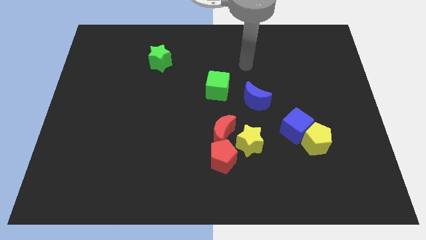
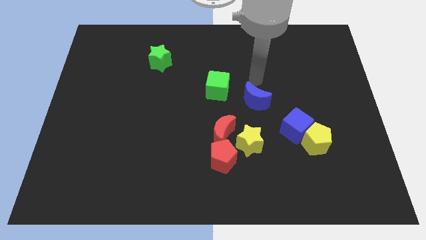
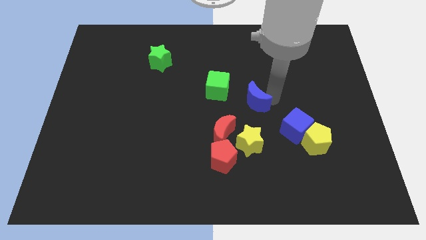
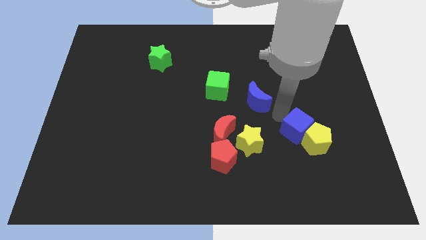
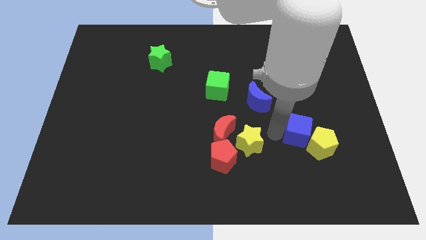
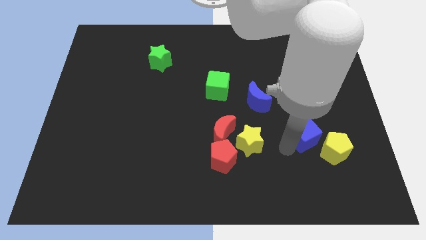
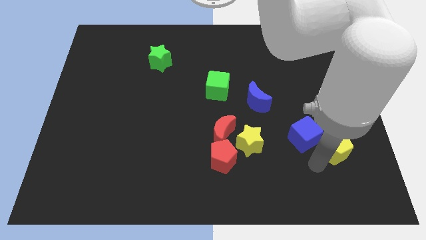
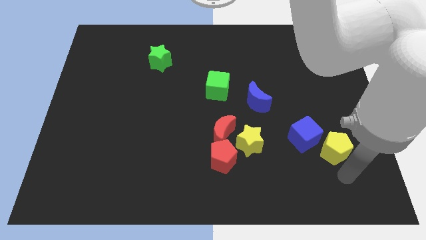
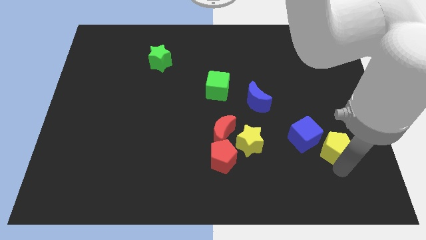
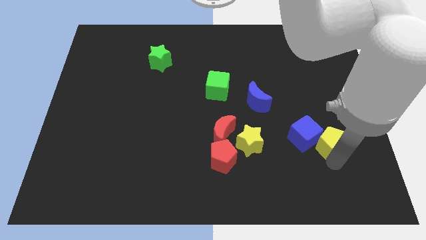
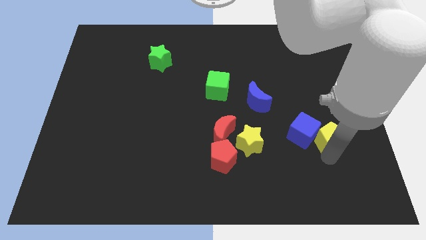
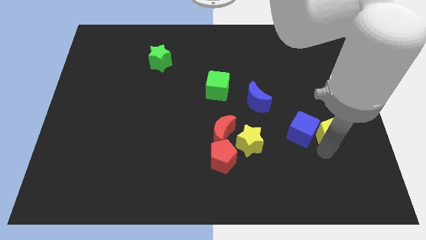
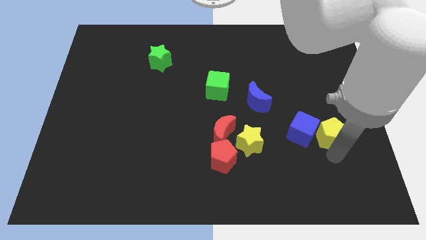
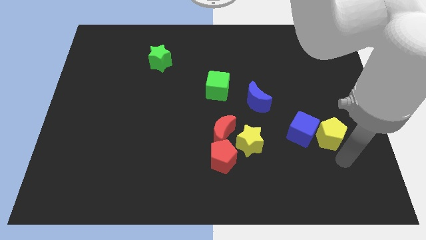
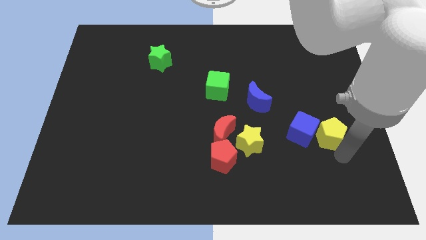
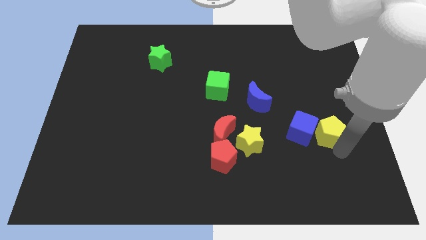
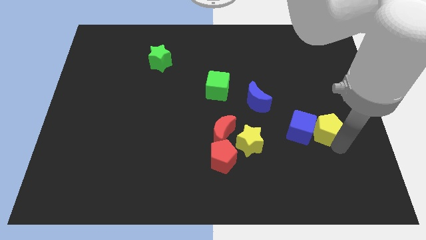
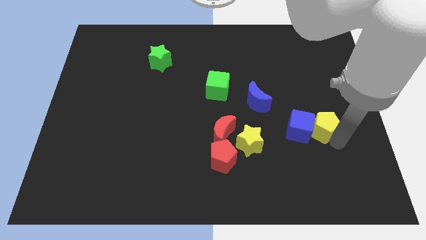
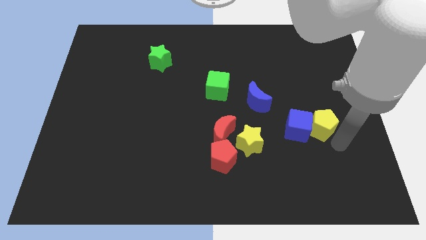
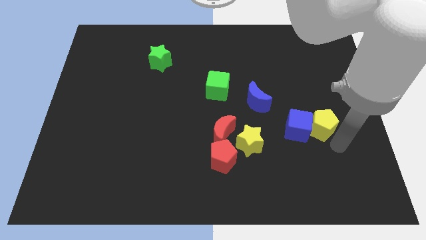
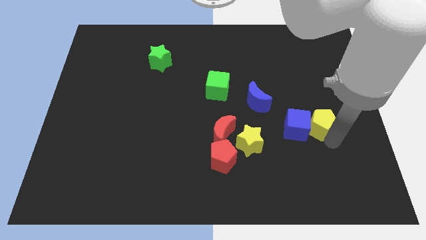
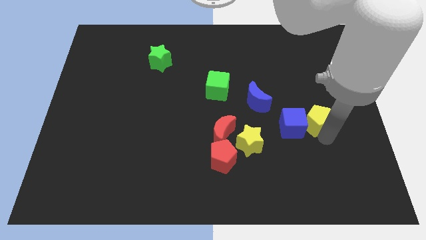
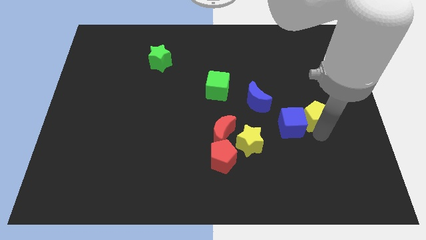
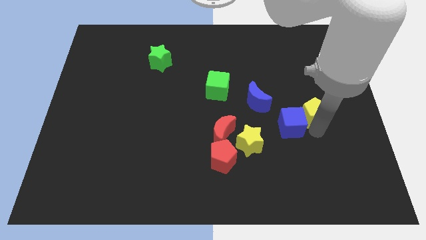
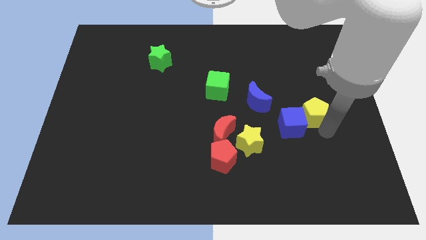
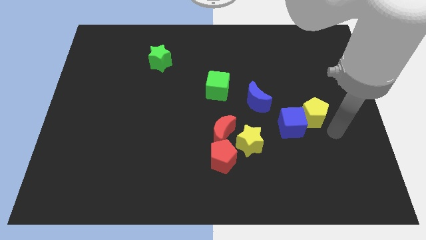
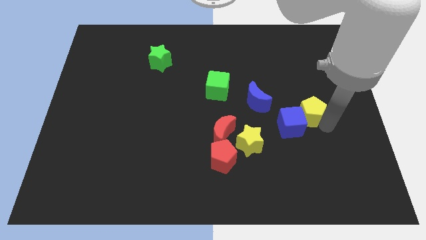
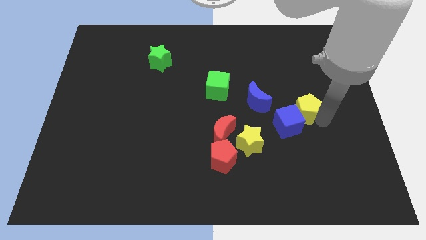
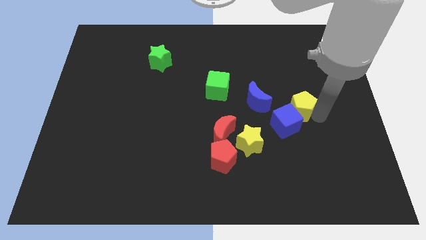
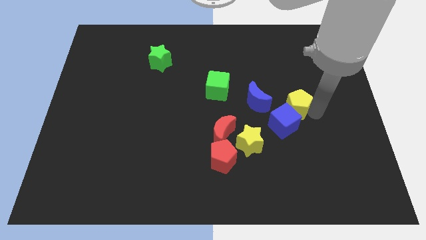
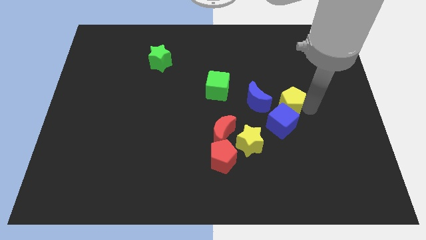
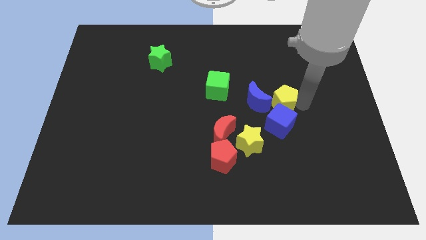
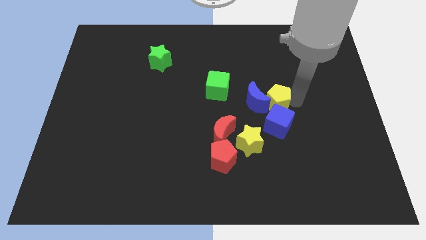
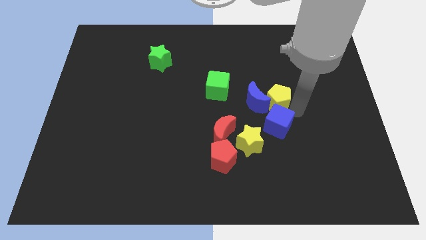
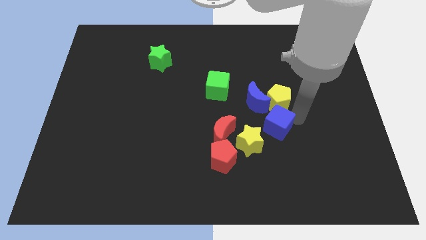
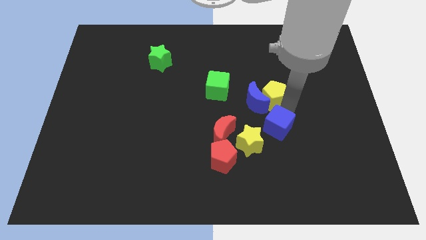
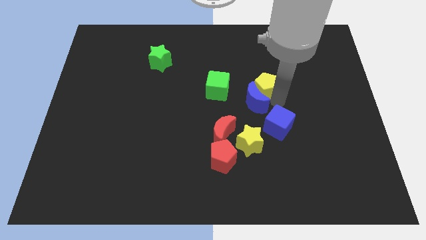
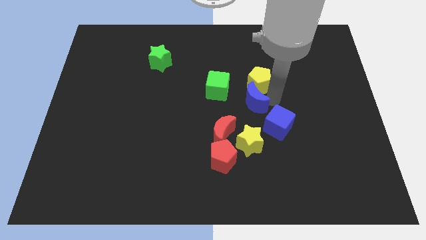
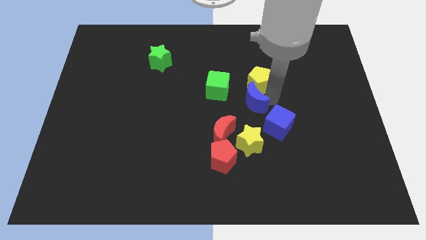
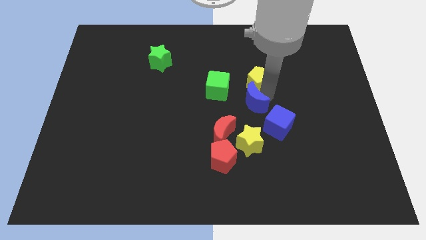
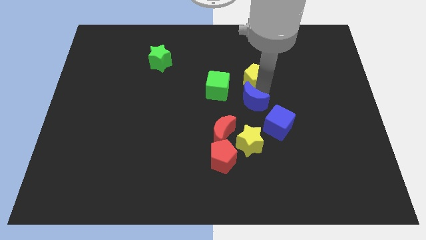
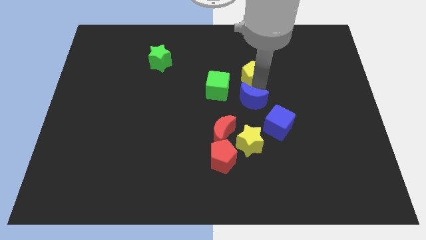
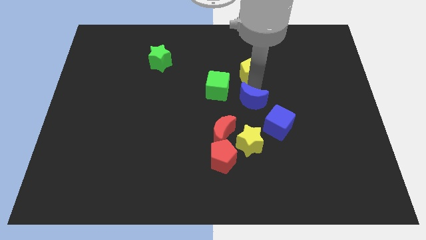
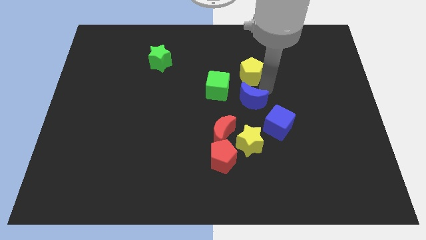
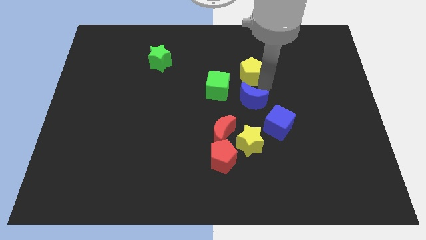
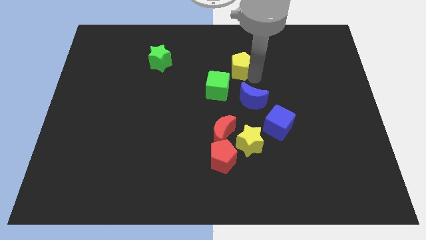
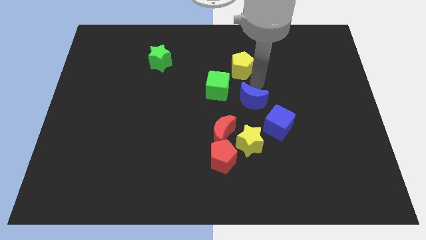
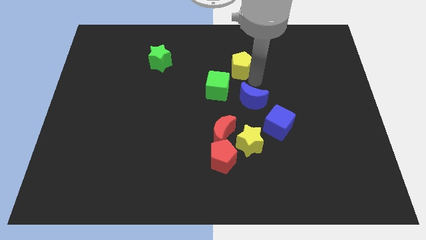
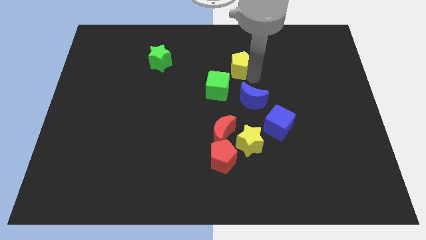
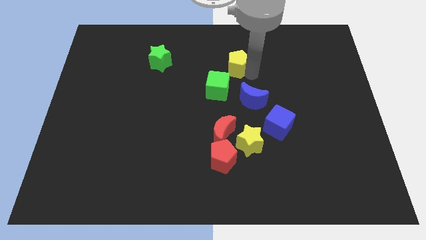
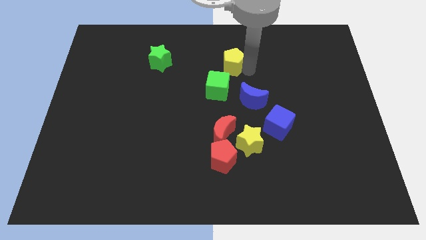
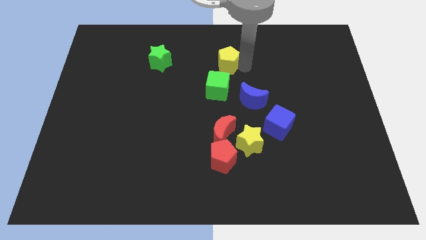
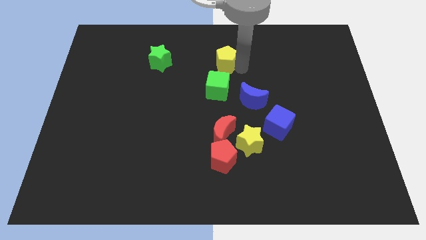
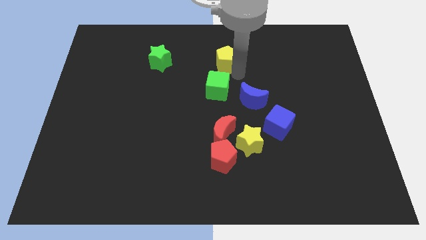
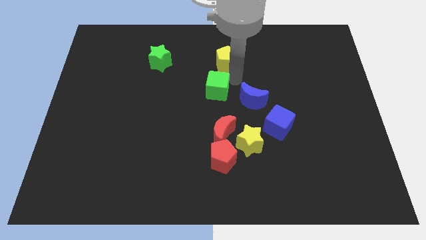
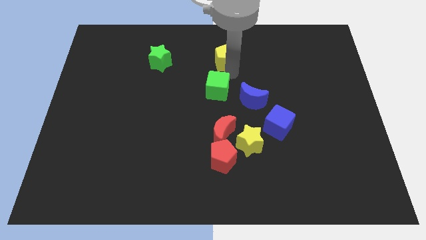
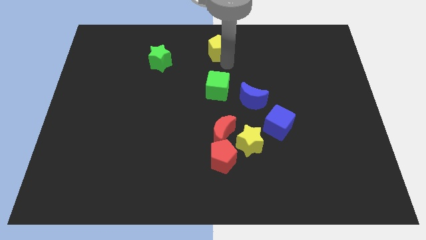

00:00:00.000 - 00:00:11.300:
slide the yellow pentagon to the towards your base

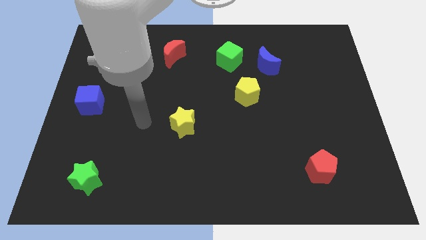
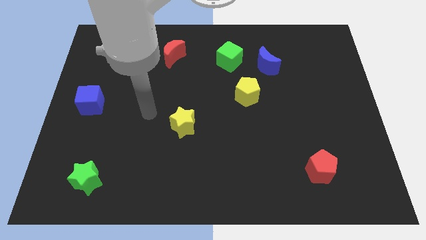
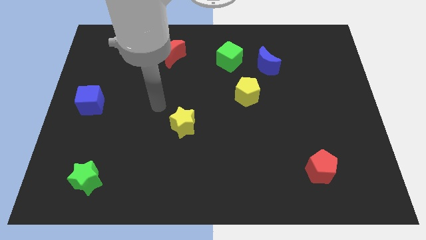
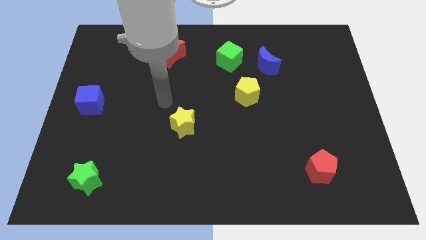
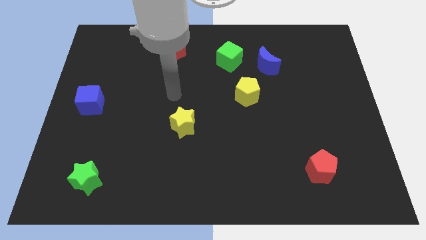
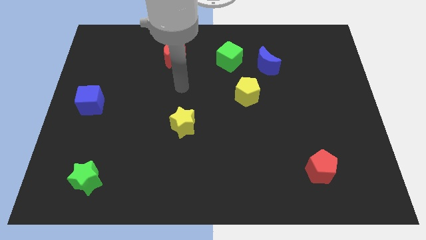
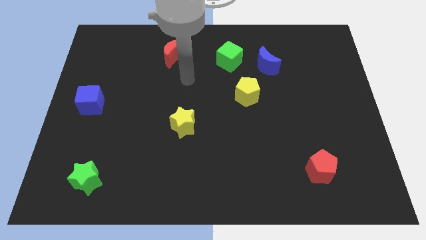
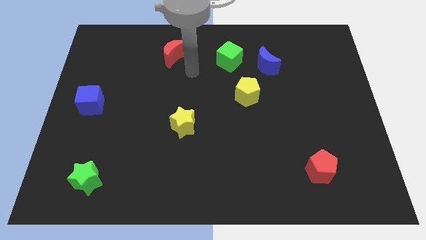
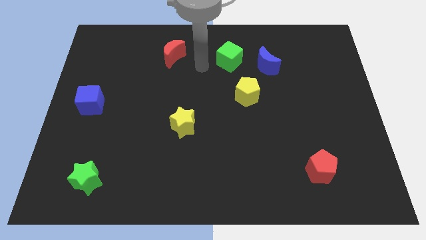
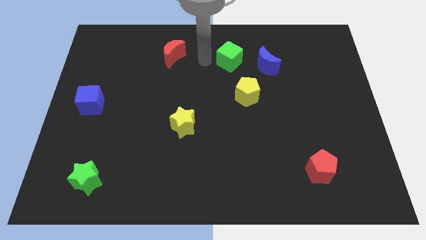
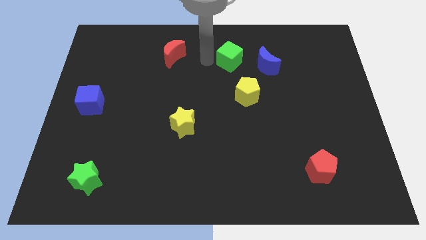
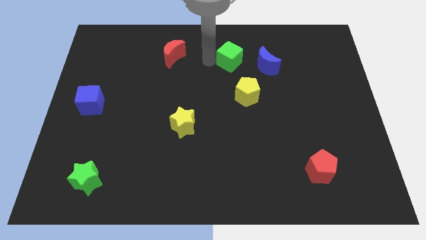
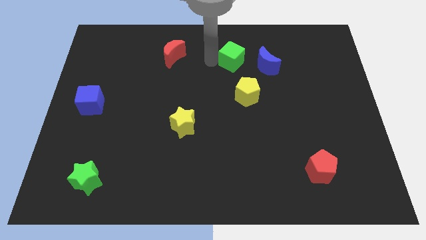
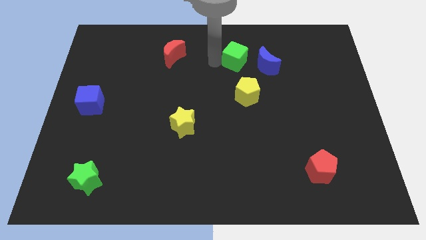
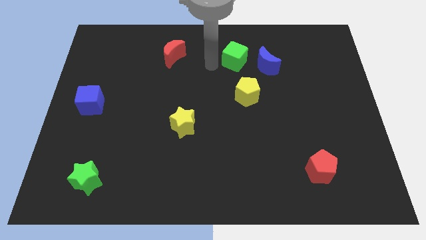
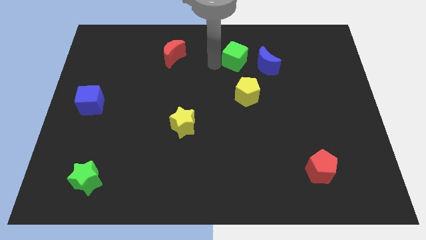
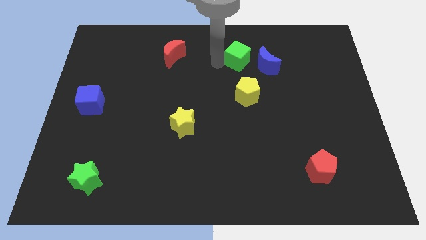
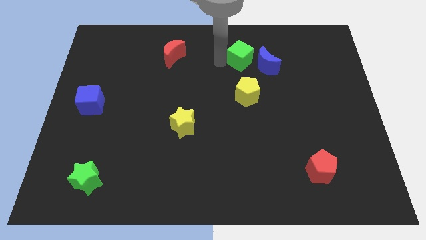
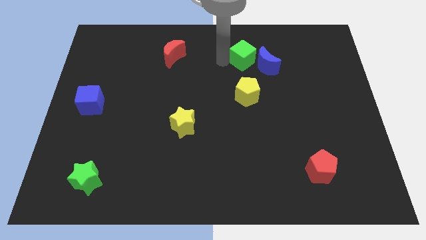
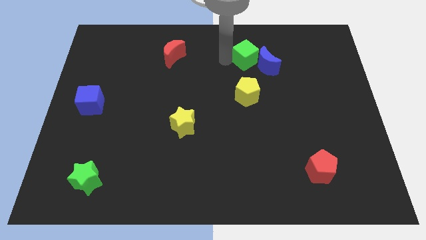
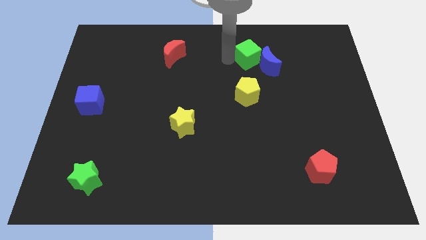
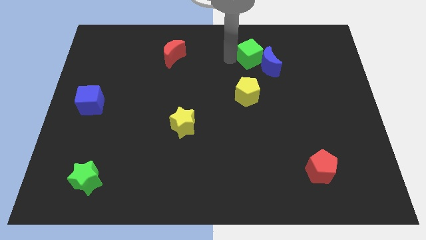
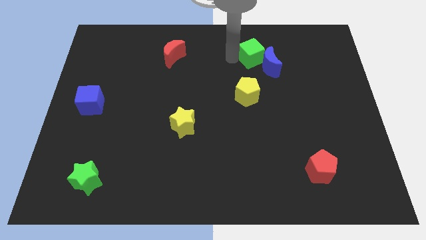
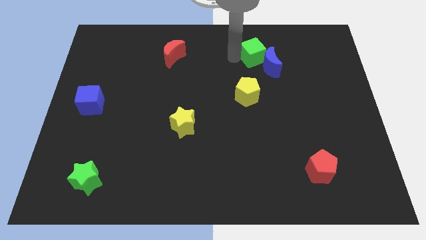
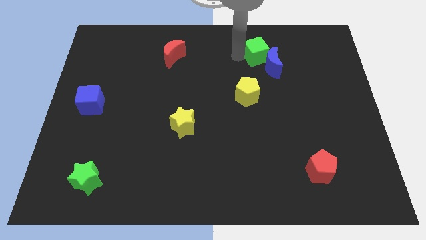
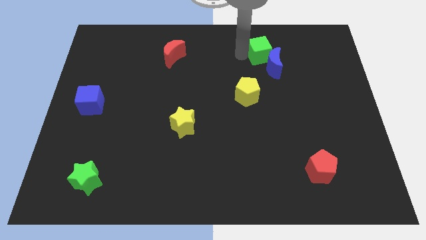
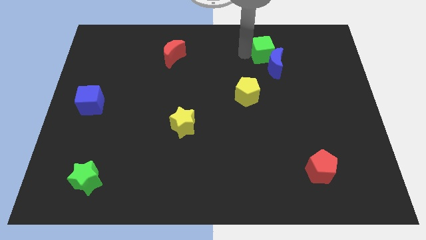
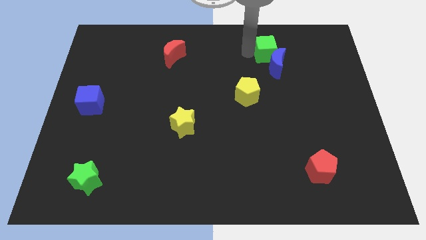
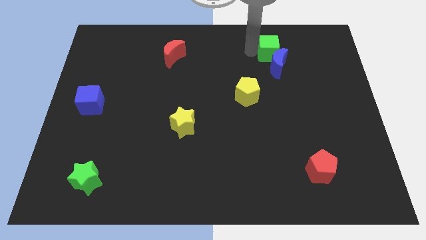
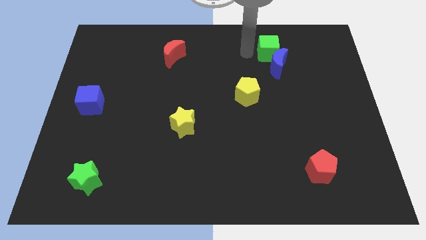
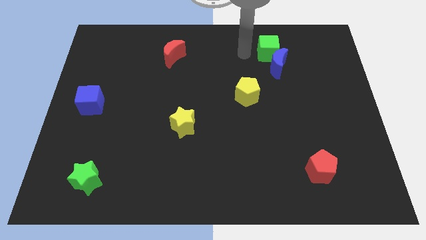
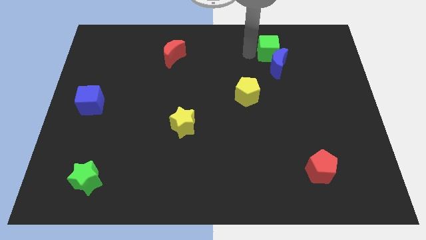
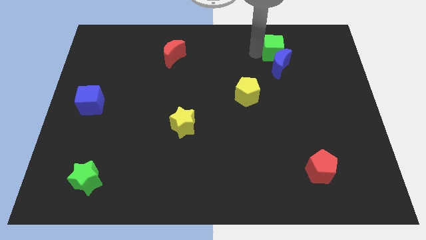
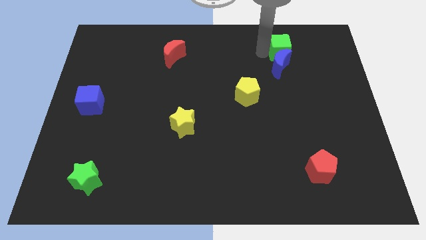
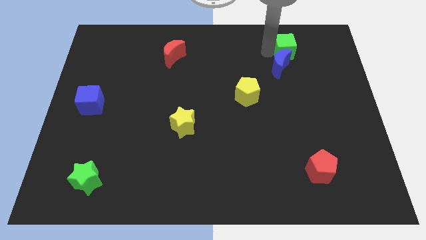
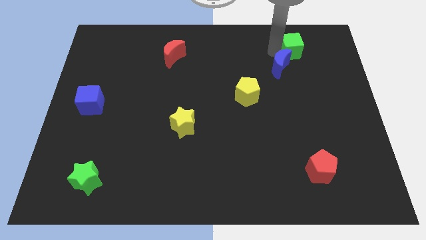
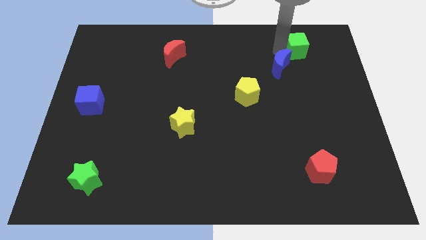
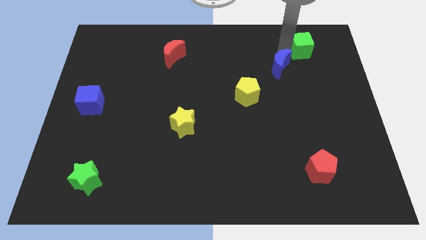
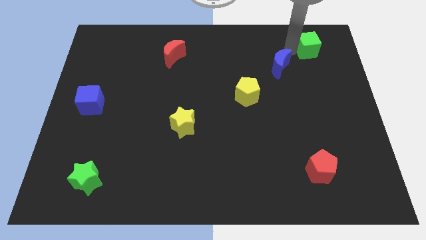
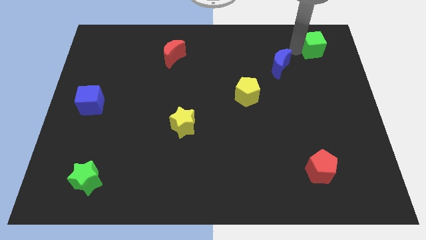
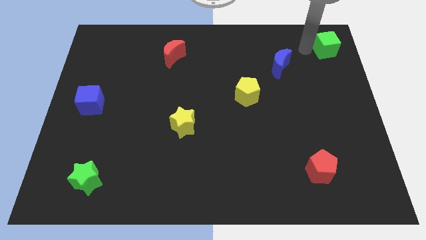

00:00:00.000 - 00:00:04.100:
slide the green cube to the top right corner
